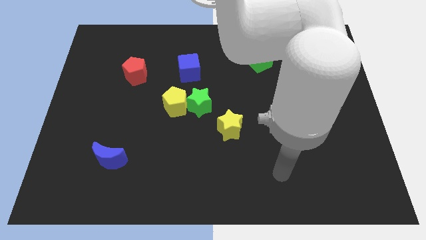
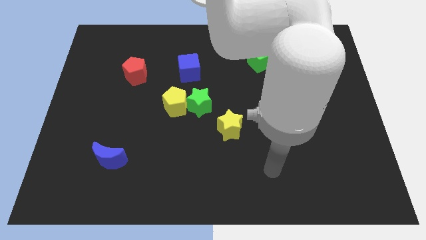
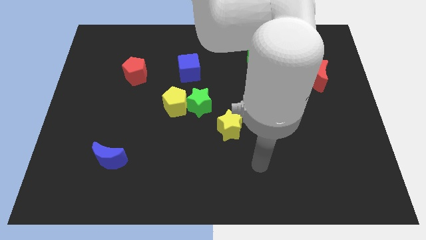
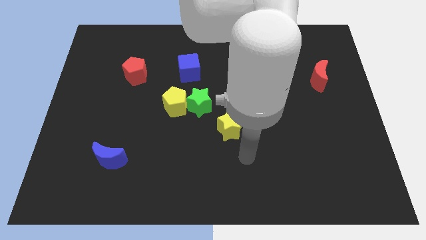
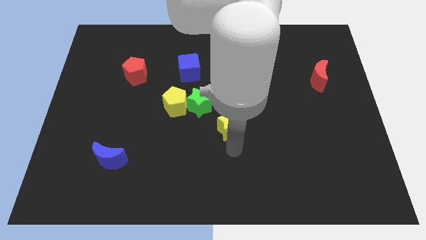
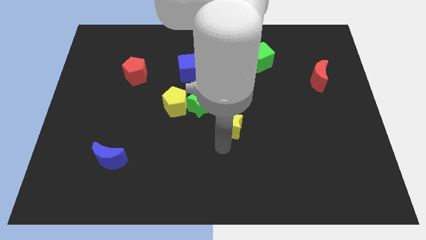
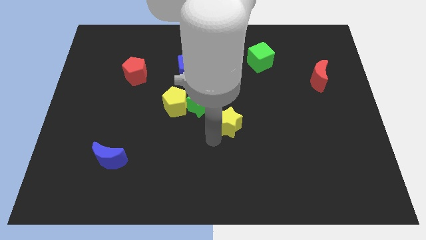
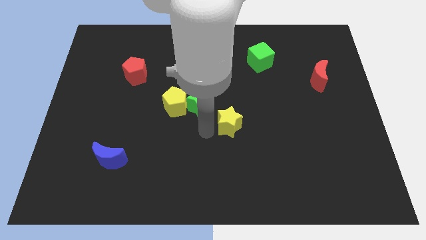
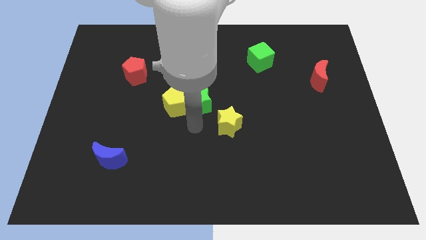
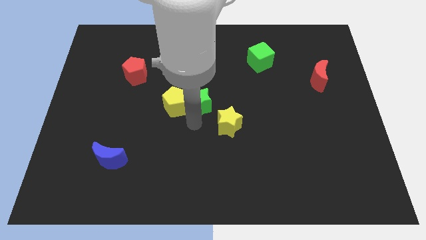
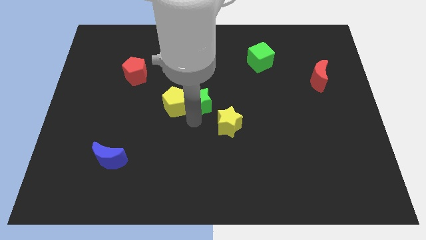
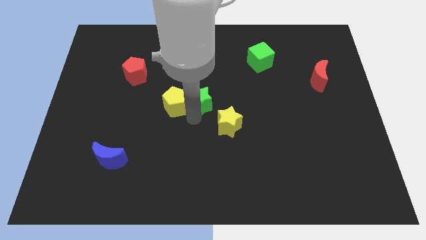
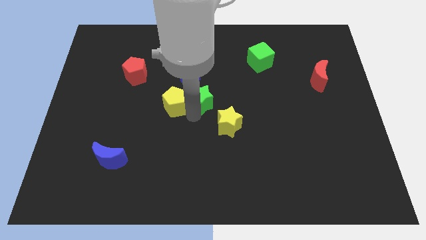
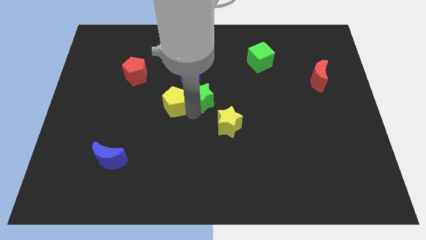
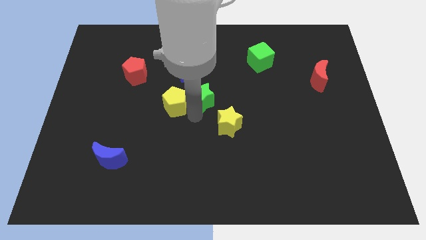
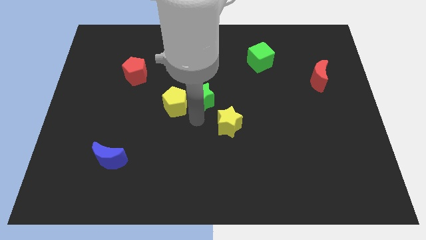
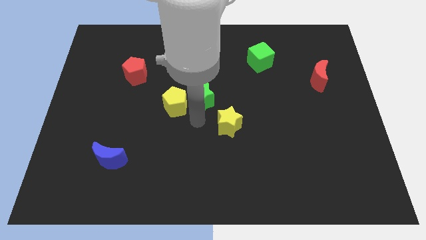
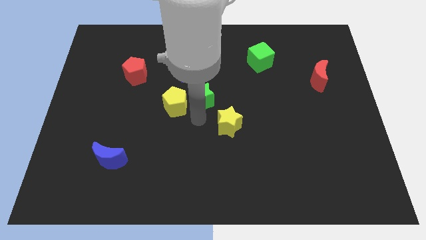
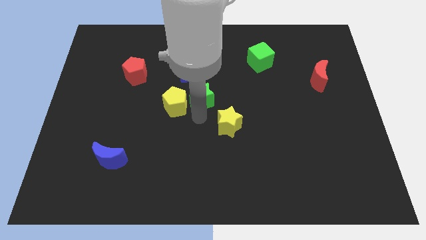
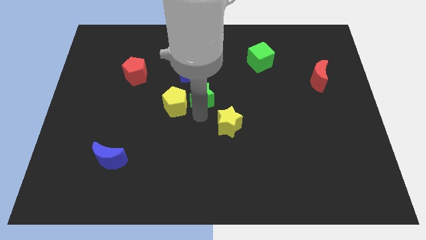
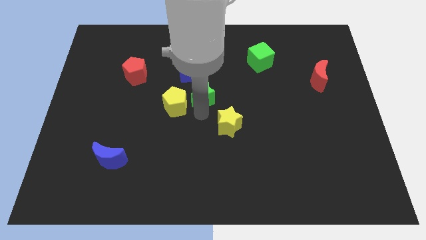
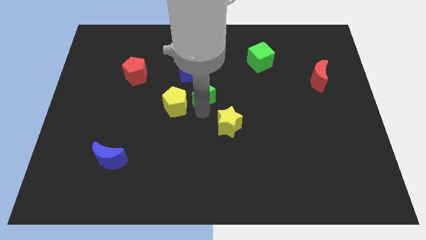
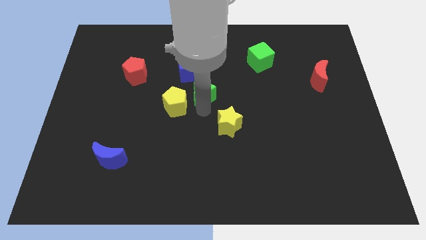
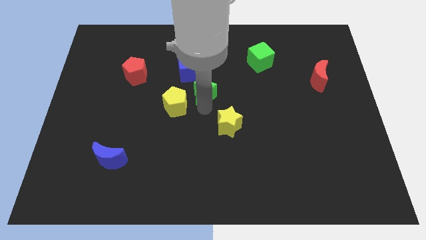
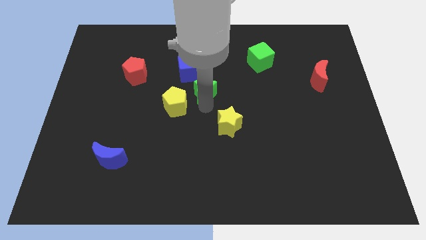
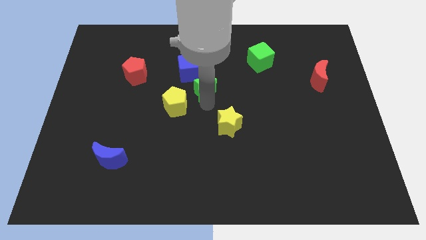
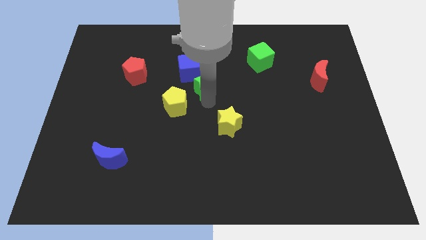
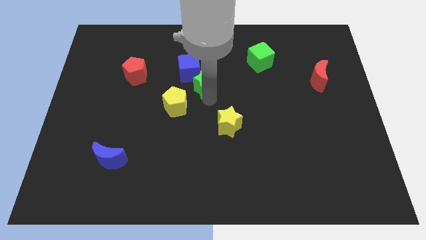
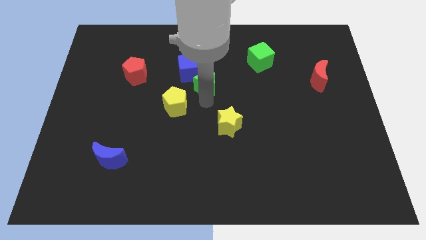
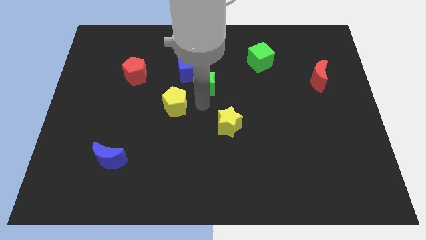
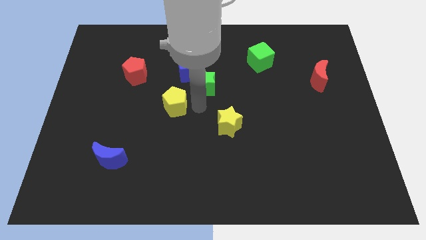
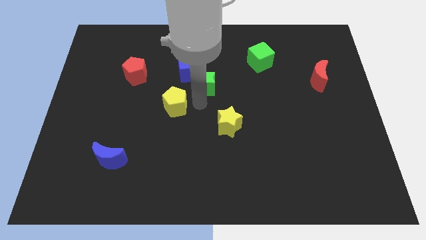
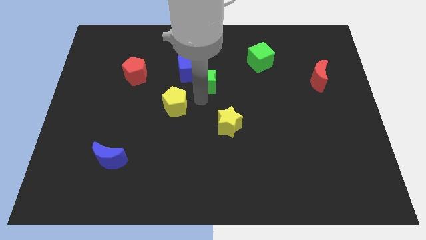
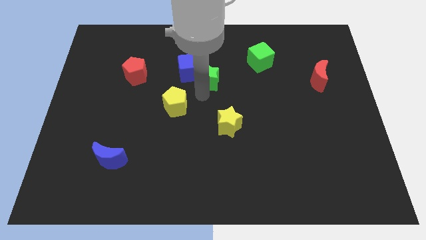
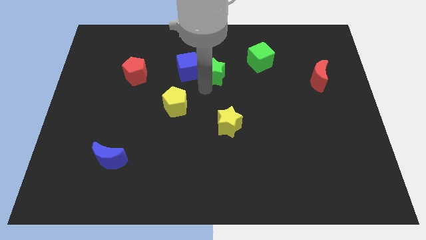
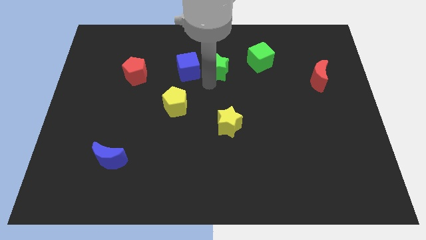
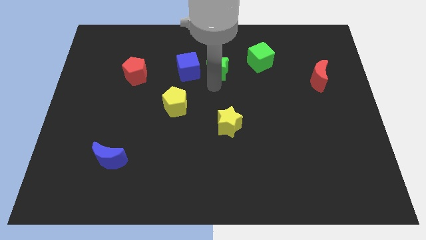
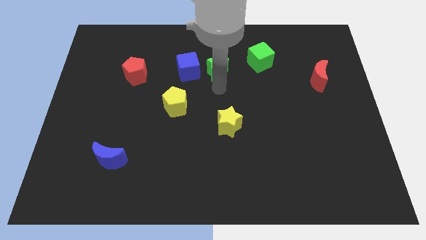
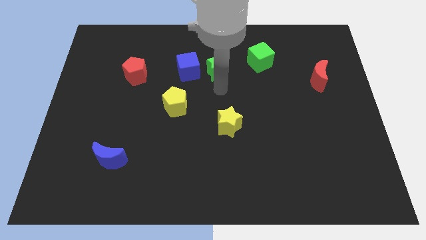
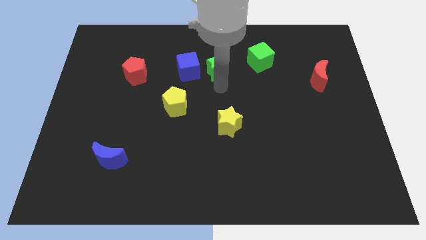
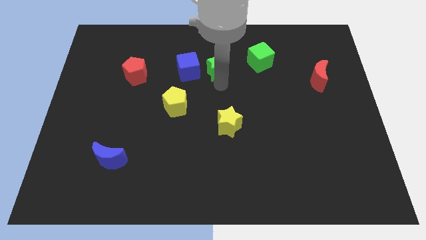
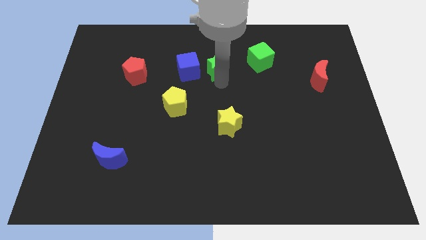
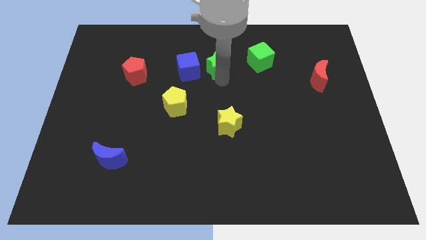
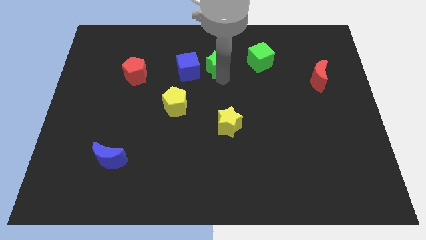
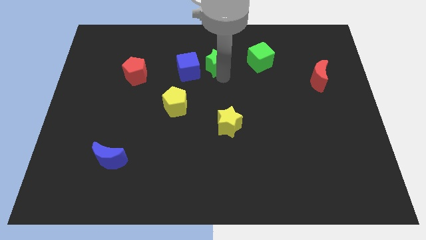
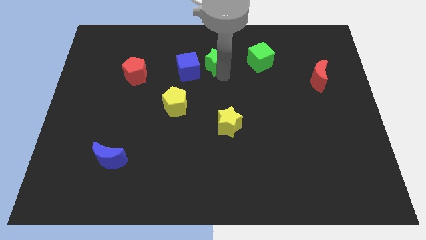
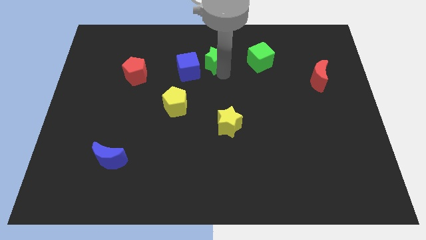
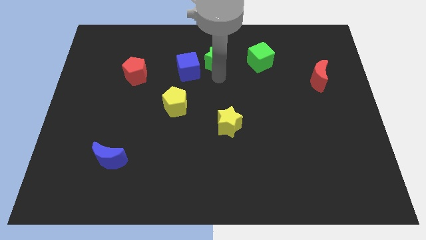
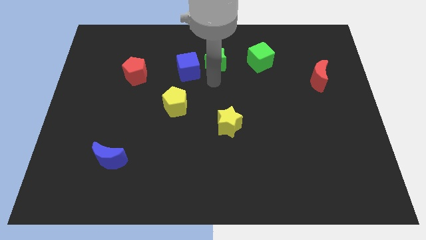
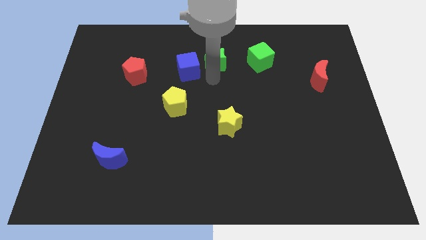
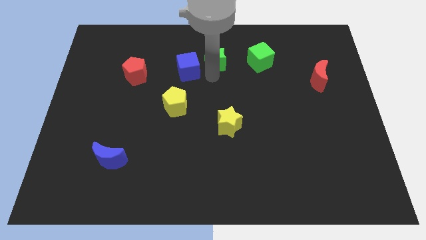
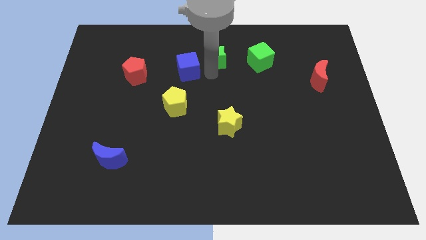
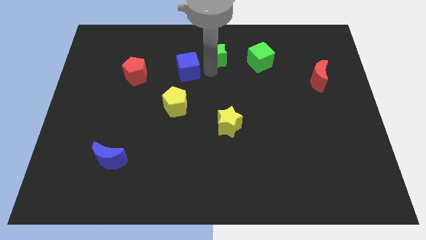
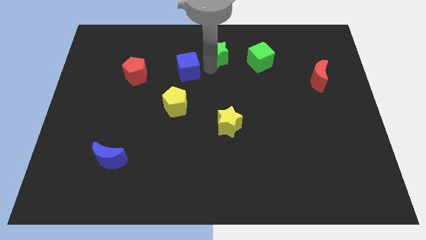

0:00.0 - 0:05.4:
move the green star to the top side
